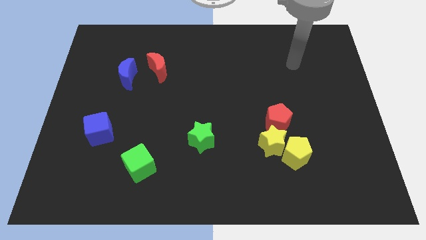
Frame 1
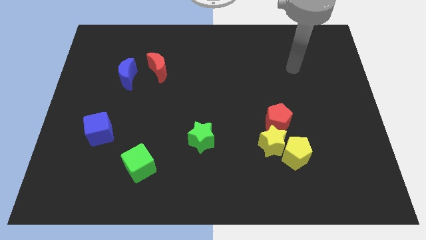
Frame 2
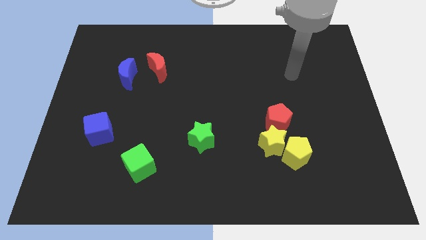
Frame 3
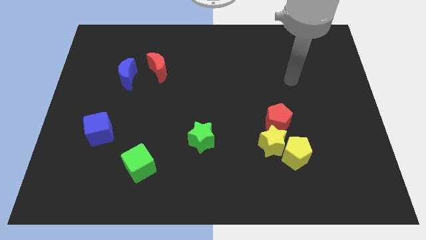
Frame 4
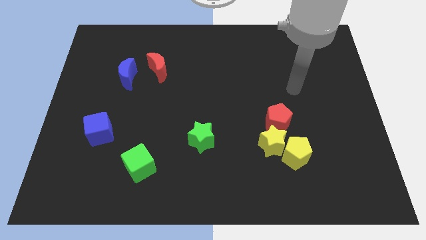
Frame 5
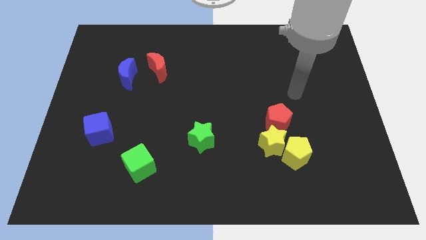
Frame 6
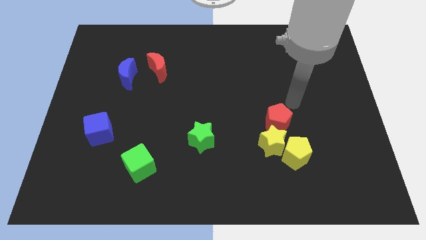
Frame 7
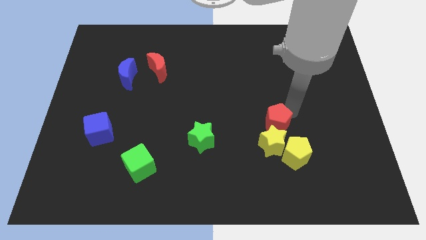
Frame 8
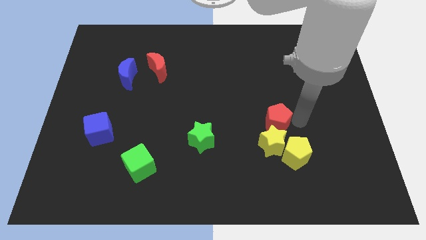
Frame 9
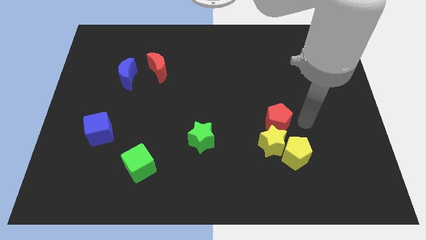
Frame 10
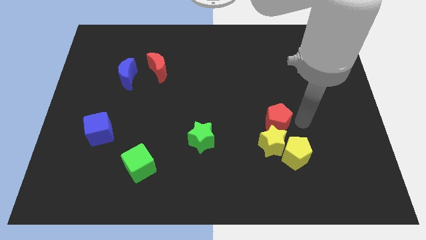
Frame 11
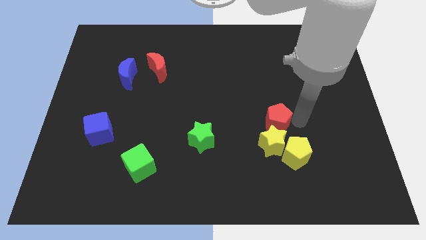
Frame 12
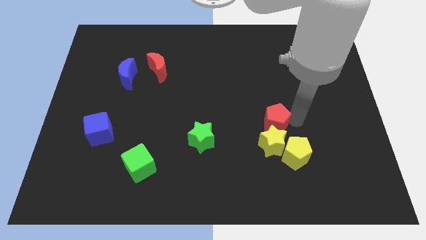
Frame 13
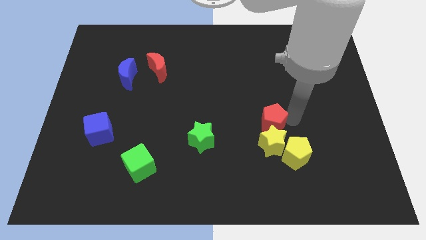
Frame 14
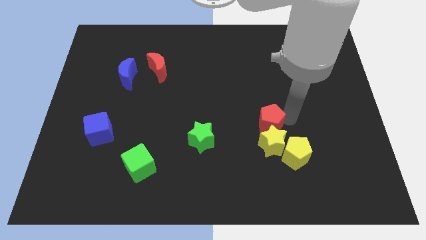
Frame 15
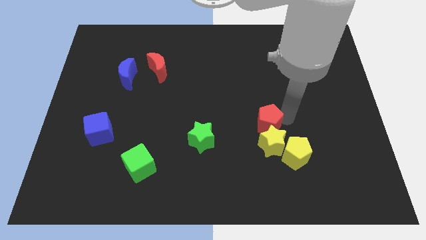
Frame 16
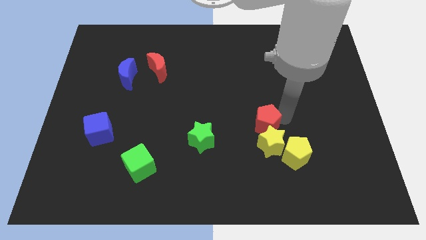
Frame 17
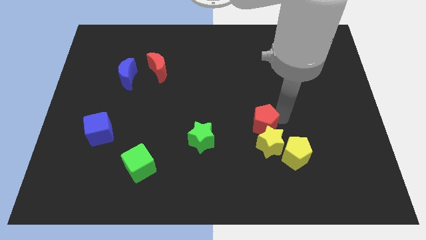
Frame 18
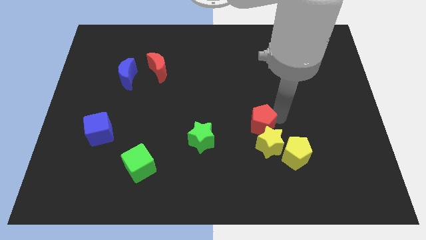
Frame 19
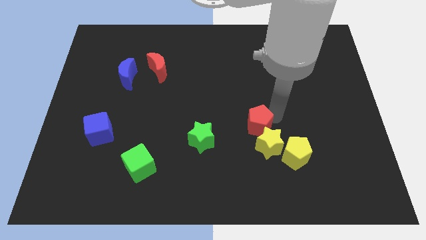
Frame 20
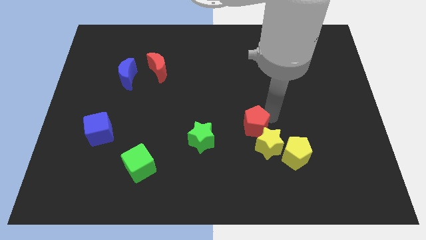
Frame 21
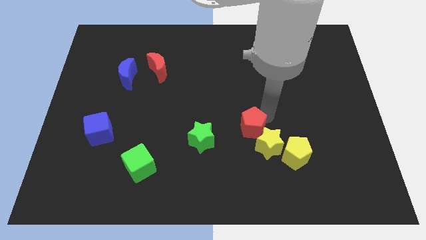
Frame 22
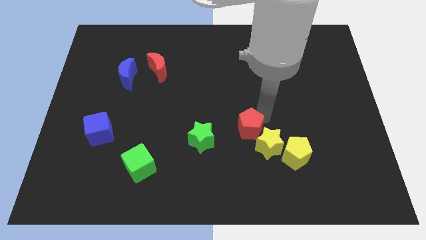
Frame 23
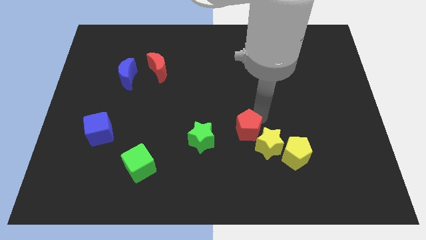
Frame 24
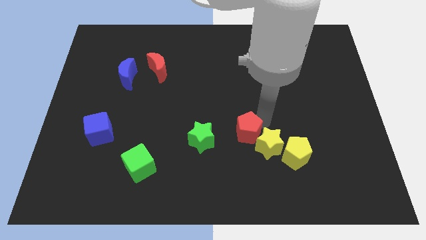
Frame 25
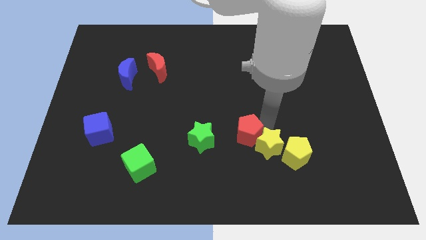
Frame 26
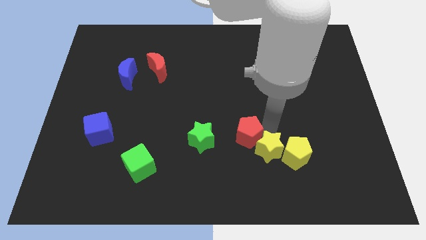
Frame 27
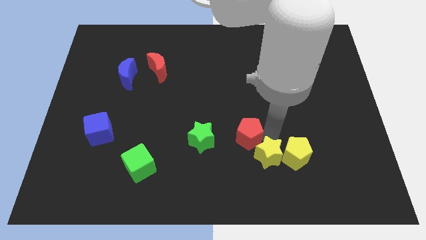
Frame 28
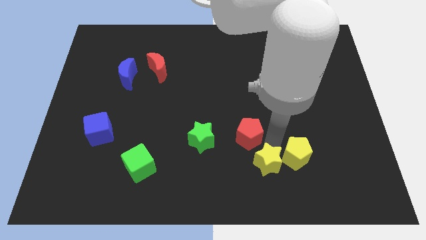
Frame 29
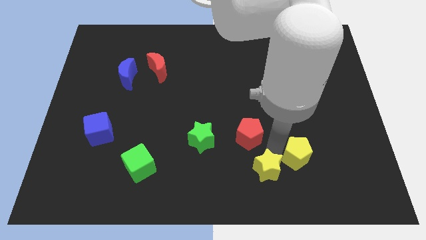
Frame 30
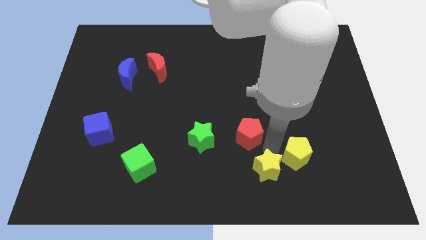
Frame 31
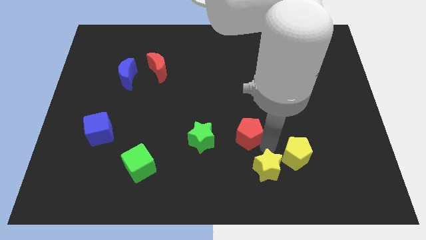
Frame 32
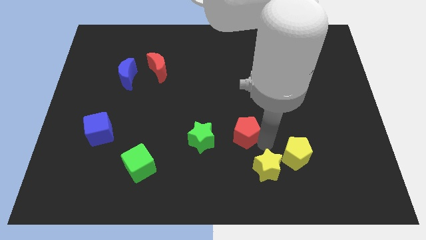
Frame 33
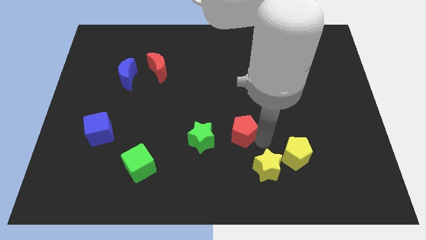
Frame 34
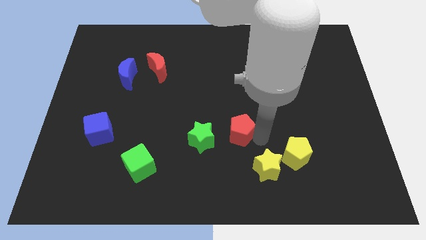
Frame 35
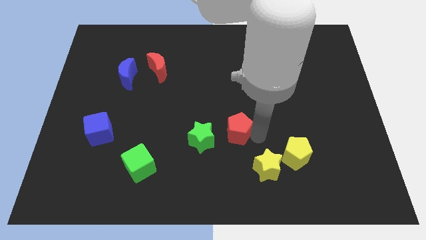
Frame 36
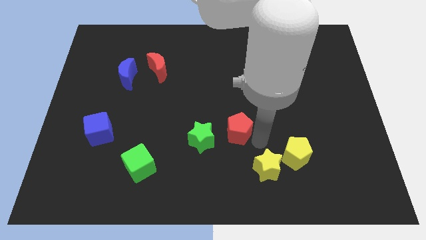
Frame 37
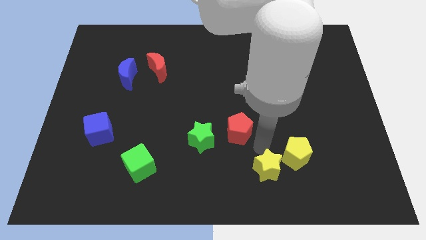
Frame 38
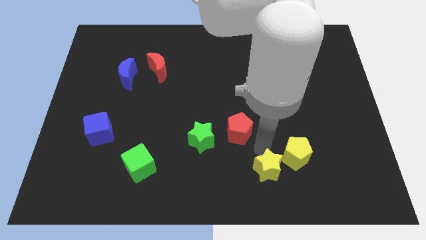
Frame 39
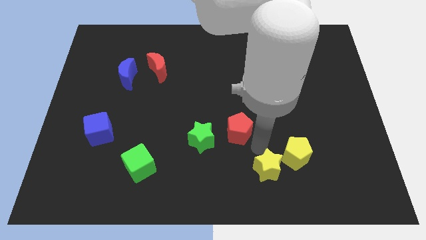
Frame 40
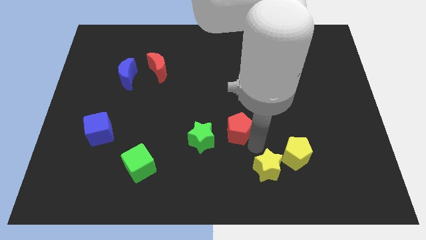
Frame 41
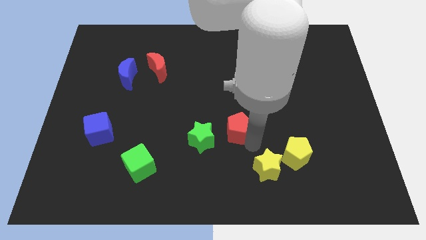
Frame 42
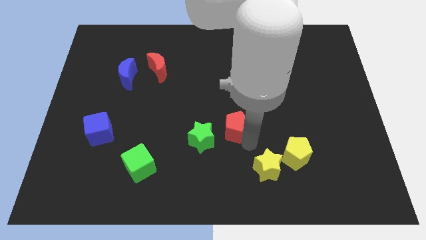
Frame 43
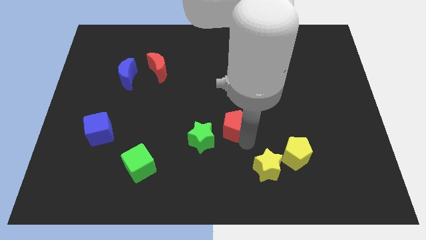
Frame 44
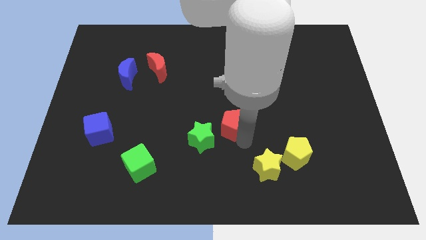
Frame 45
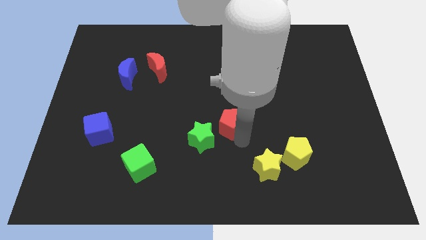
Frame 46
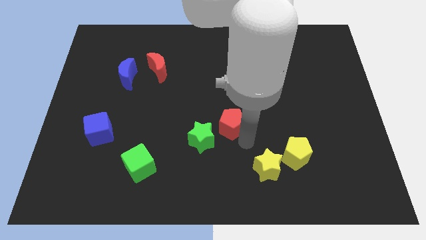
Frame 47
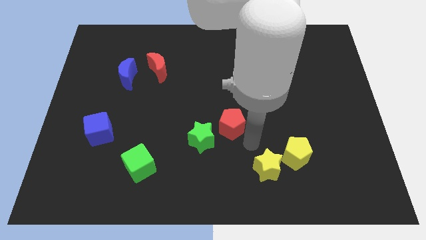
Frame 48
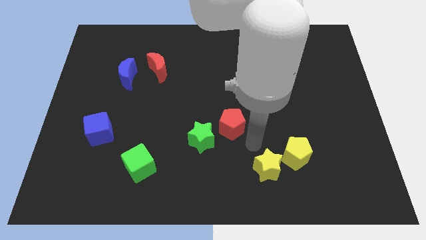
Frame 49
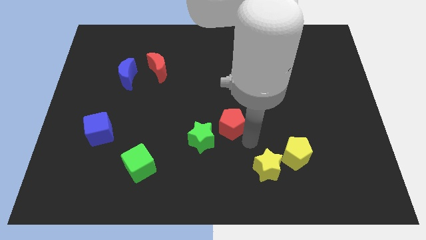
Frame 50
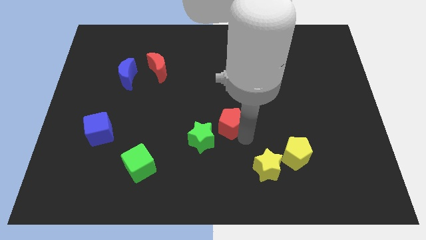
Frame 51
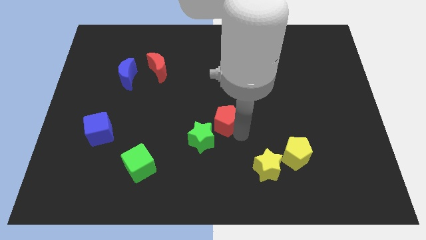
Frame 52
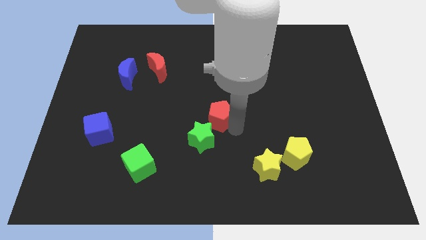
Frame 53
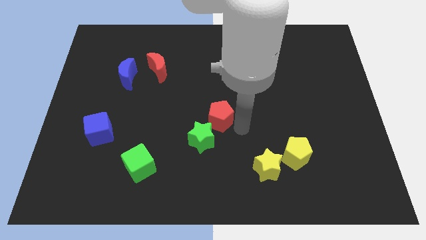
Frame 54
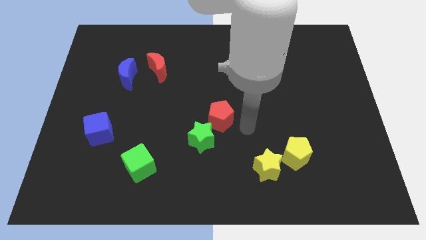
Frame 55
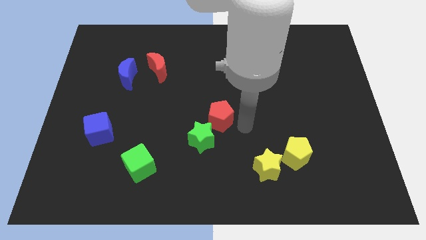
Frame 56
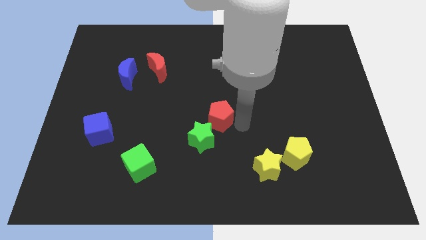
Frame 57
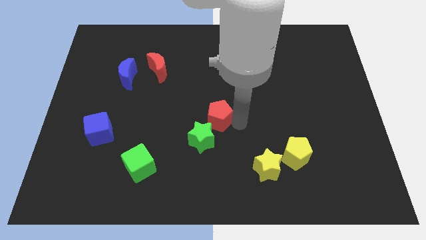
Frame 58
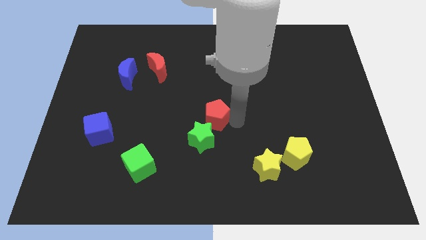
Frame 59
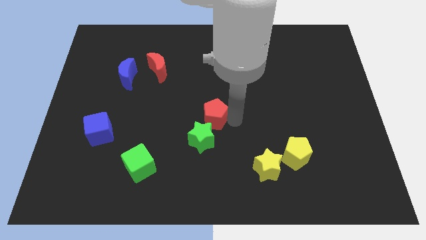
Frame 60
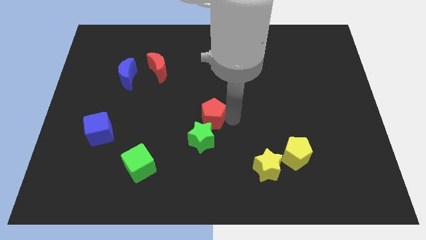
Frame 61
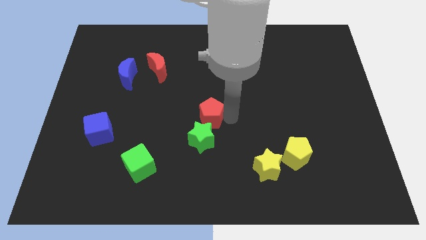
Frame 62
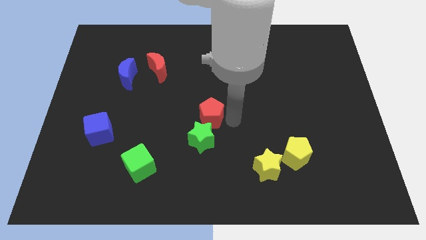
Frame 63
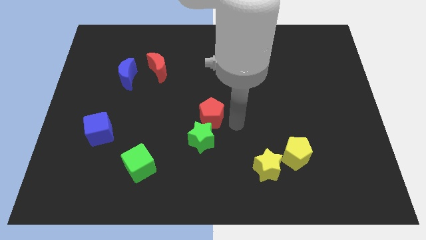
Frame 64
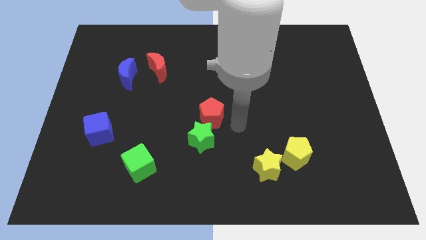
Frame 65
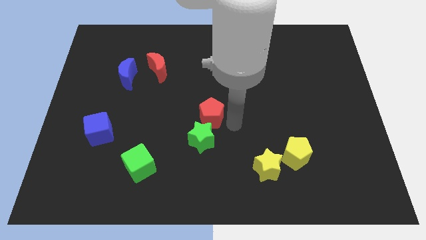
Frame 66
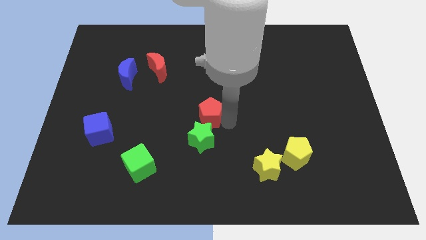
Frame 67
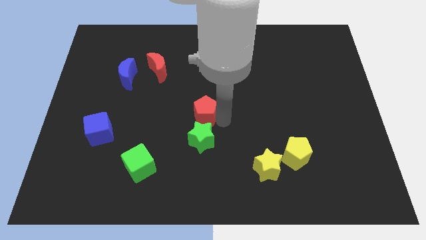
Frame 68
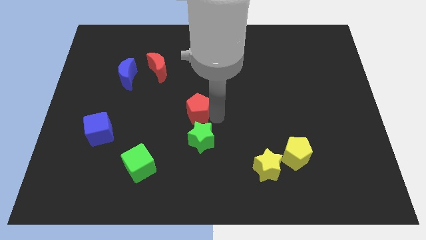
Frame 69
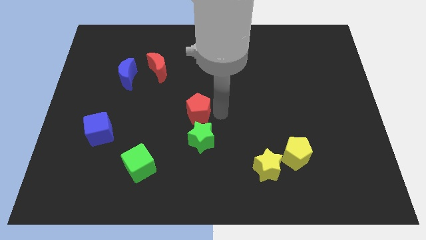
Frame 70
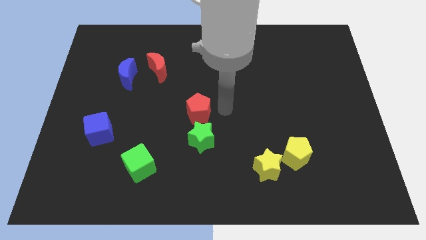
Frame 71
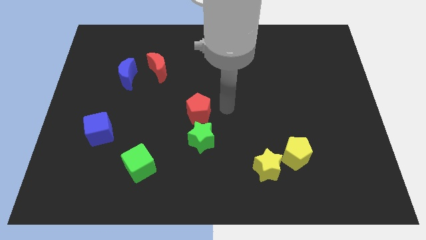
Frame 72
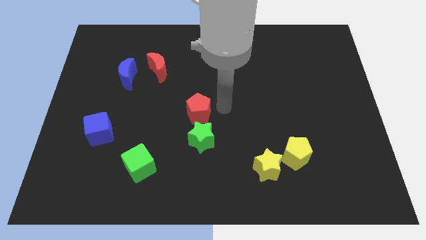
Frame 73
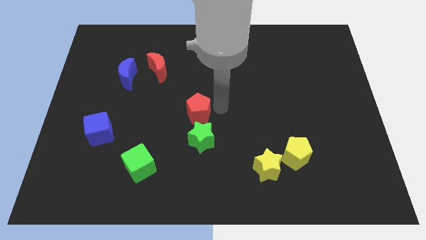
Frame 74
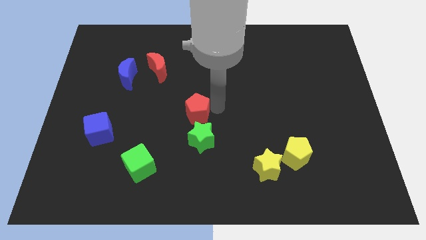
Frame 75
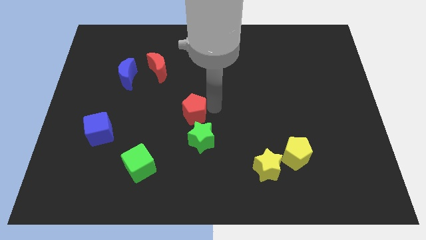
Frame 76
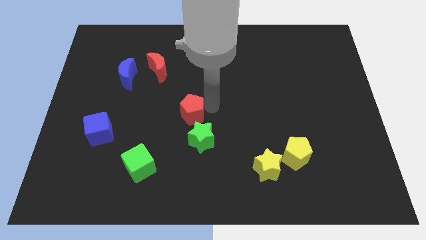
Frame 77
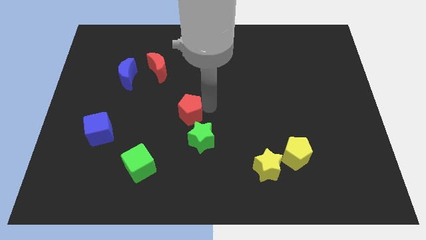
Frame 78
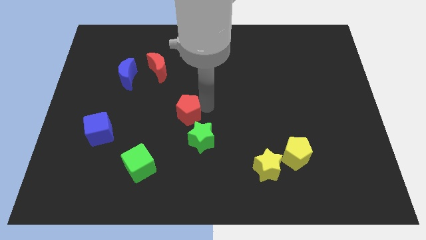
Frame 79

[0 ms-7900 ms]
slide the red pentagon left

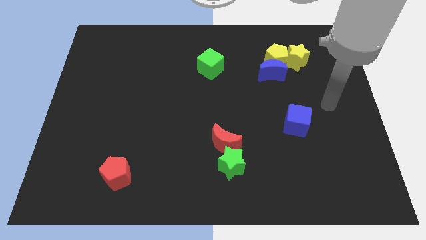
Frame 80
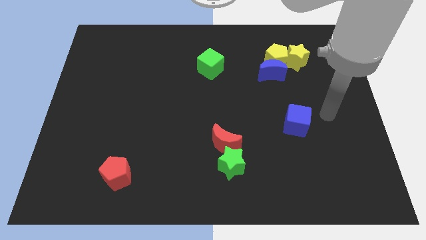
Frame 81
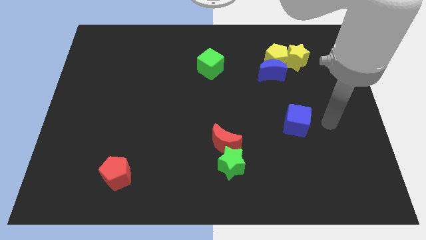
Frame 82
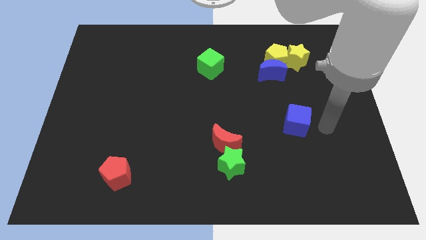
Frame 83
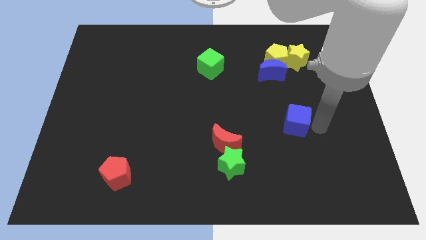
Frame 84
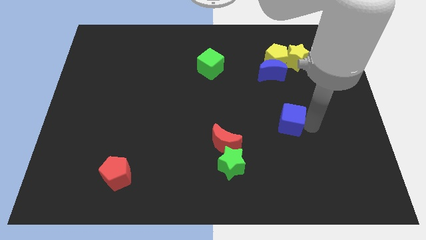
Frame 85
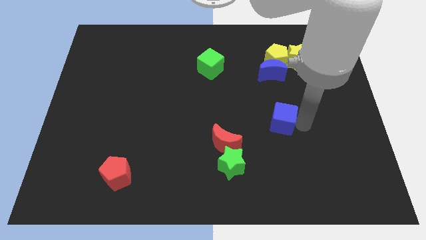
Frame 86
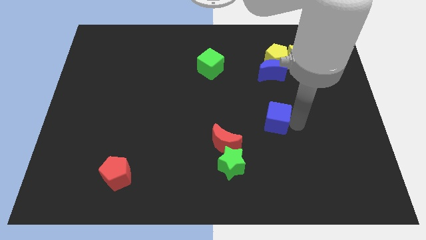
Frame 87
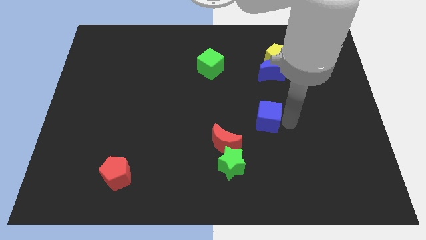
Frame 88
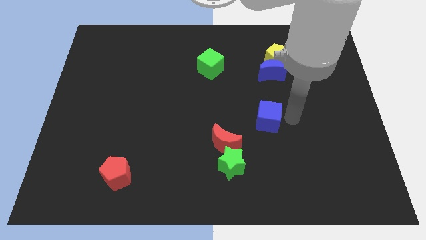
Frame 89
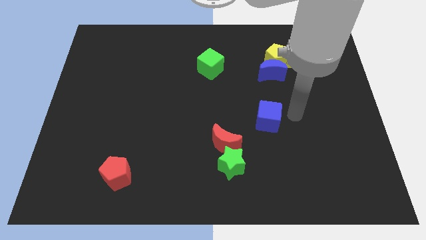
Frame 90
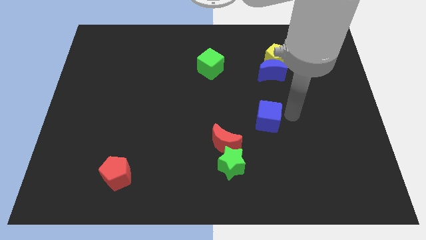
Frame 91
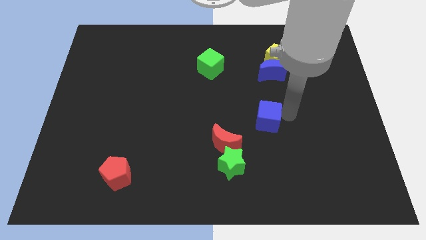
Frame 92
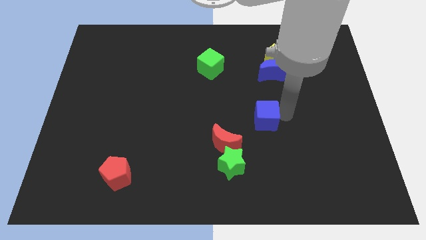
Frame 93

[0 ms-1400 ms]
move the blue cube to the left slightly
